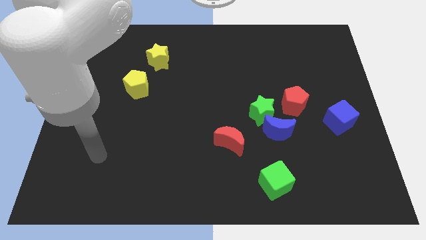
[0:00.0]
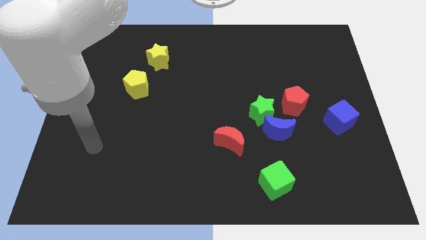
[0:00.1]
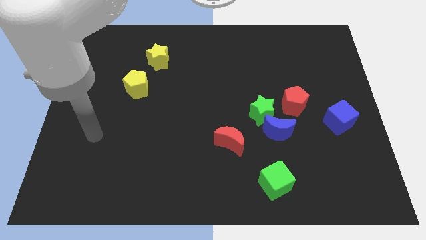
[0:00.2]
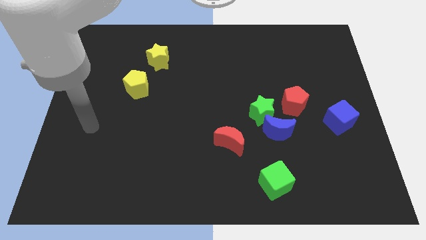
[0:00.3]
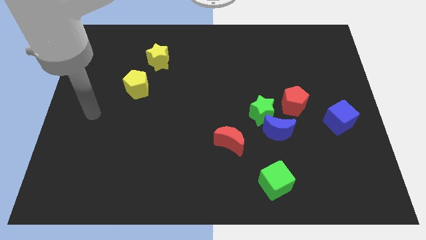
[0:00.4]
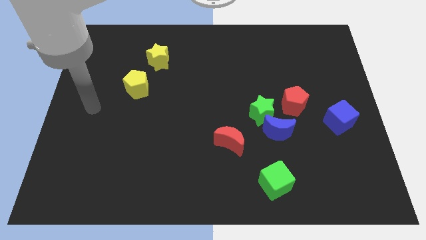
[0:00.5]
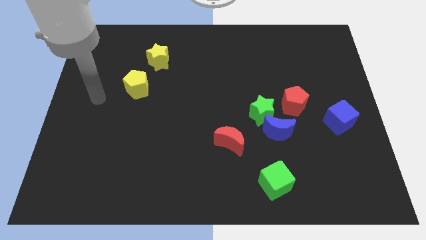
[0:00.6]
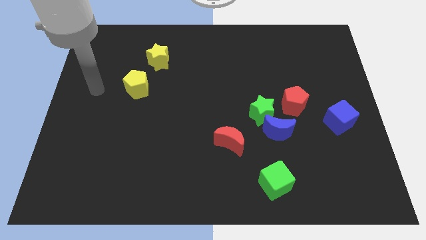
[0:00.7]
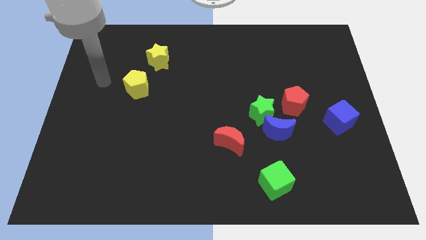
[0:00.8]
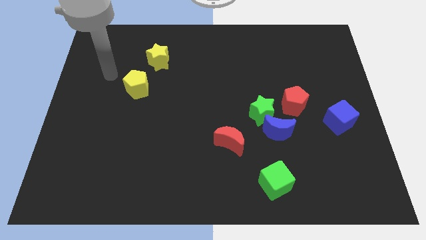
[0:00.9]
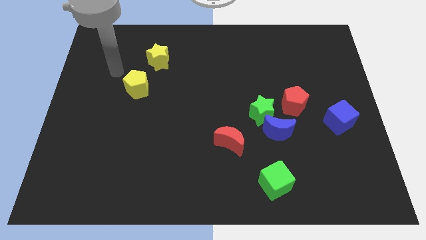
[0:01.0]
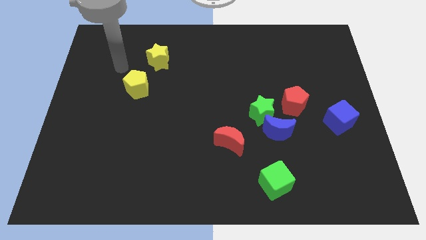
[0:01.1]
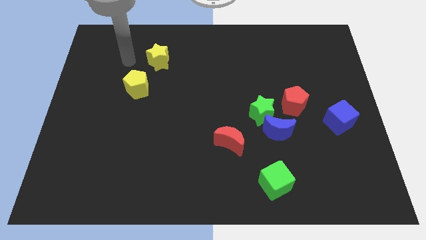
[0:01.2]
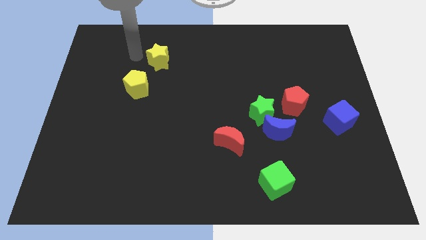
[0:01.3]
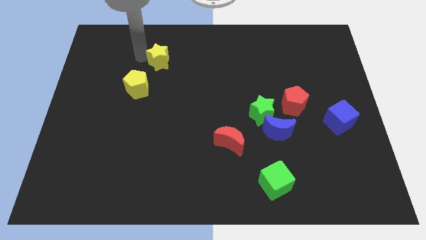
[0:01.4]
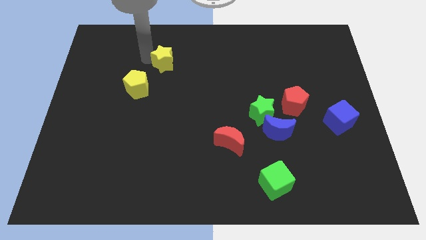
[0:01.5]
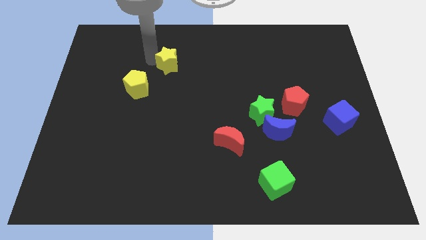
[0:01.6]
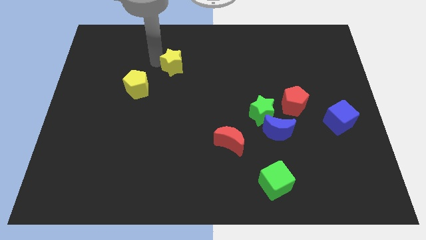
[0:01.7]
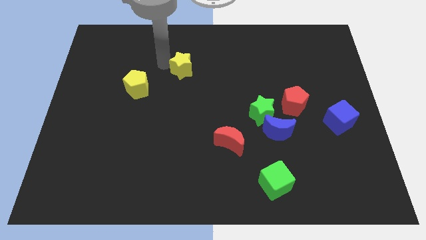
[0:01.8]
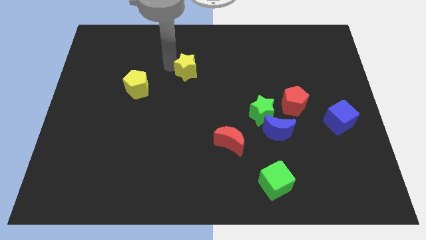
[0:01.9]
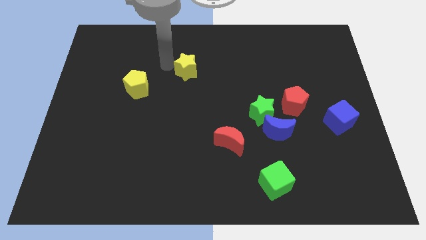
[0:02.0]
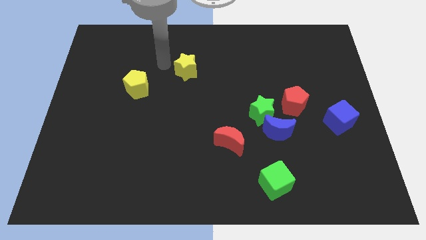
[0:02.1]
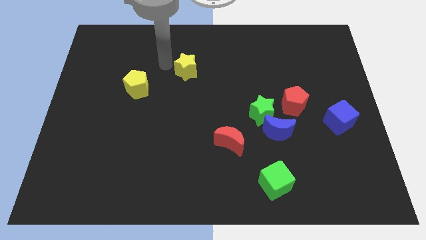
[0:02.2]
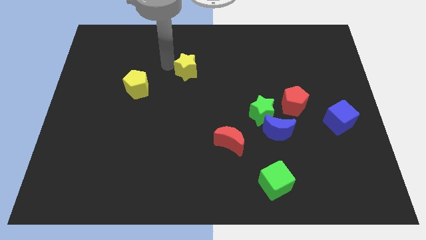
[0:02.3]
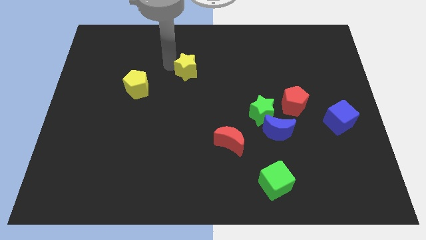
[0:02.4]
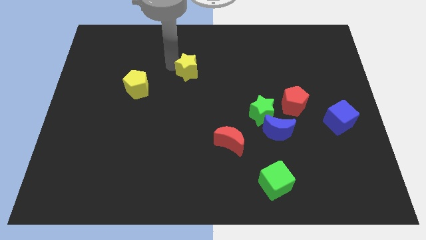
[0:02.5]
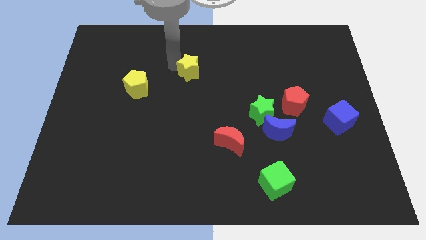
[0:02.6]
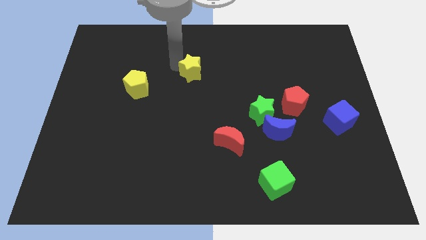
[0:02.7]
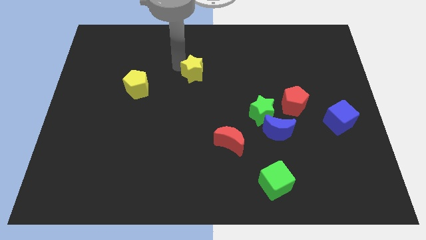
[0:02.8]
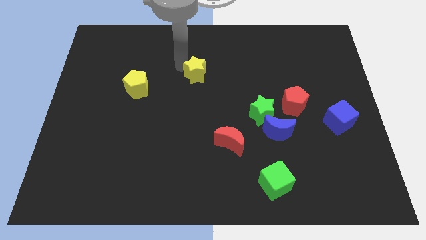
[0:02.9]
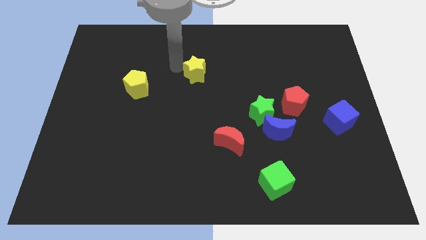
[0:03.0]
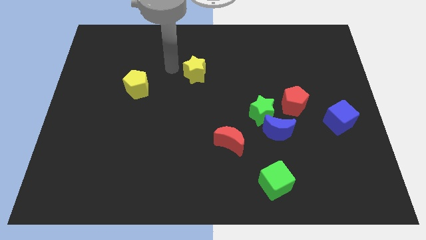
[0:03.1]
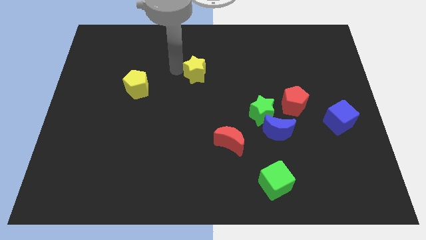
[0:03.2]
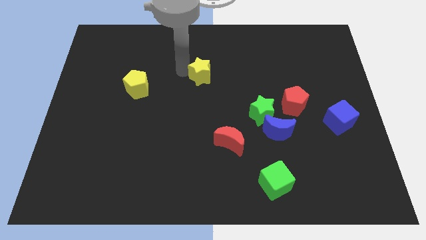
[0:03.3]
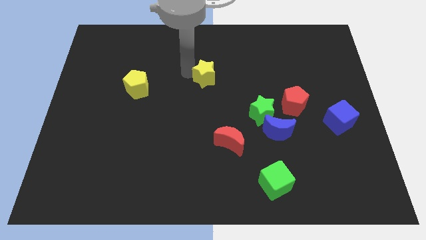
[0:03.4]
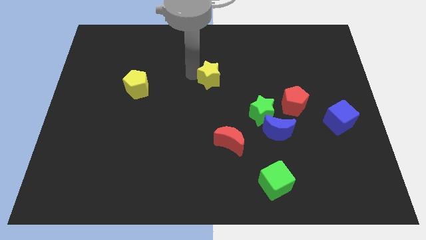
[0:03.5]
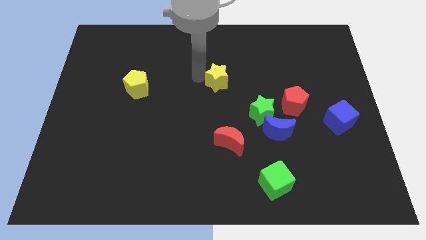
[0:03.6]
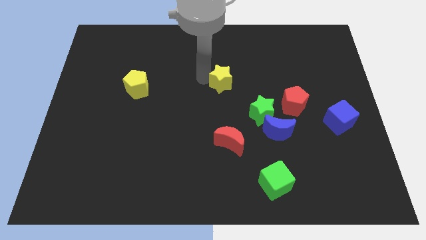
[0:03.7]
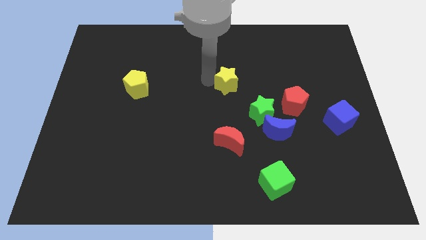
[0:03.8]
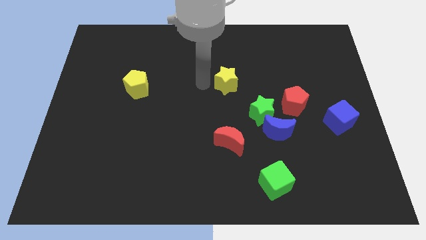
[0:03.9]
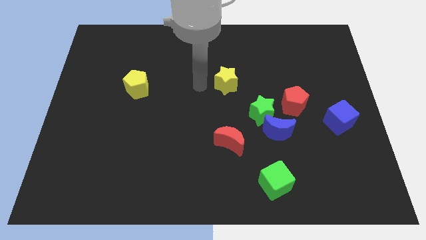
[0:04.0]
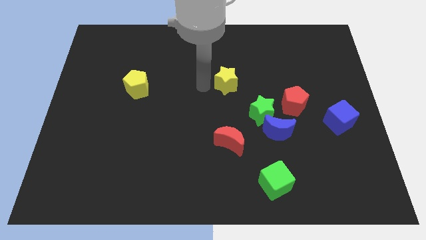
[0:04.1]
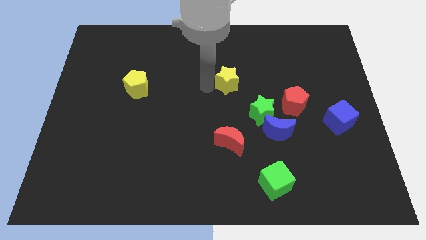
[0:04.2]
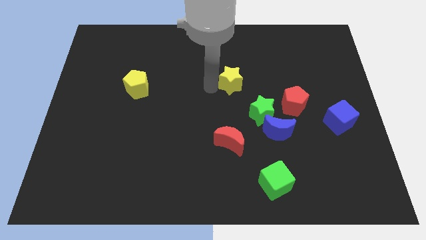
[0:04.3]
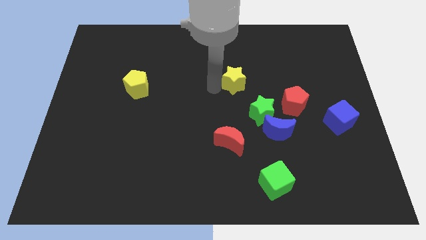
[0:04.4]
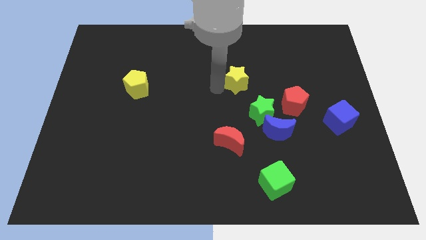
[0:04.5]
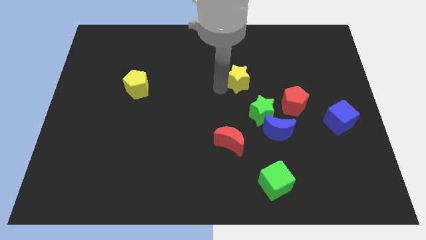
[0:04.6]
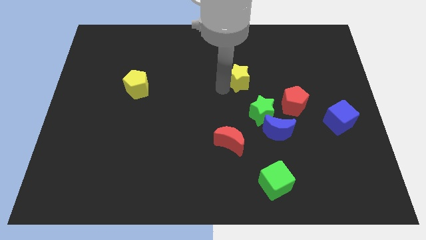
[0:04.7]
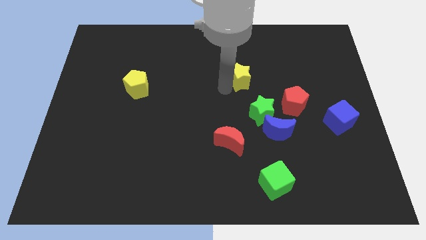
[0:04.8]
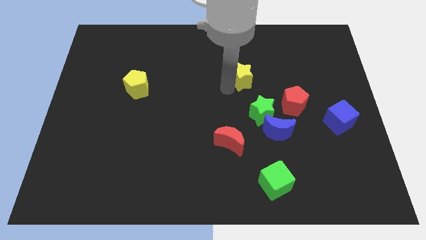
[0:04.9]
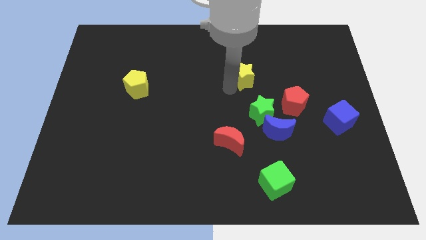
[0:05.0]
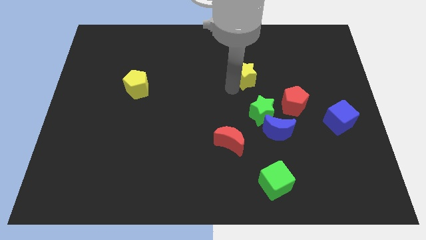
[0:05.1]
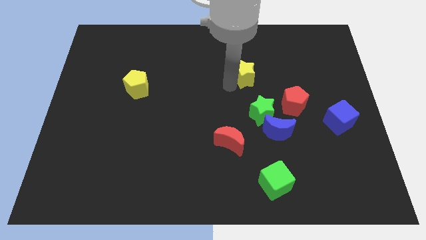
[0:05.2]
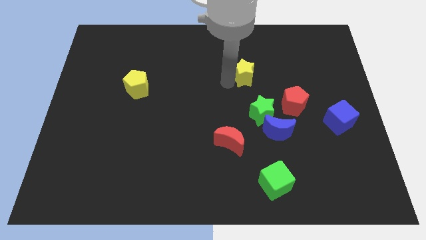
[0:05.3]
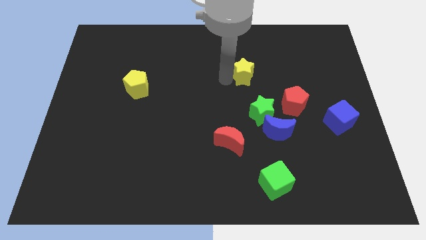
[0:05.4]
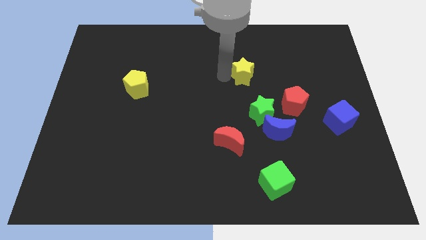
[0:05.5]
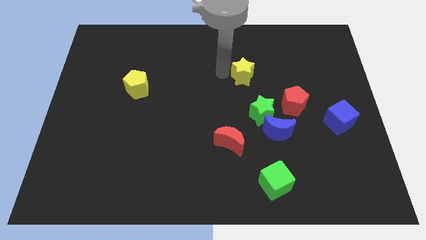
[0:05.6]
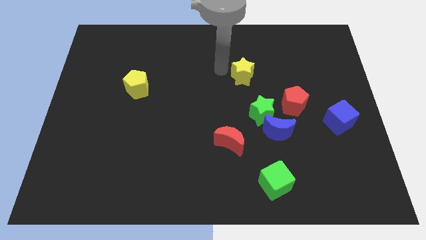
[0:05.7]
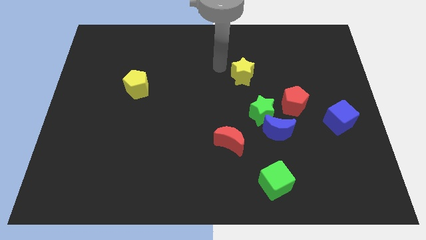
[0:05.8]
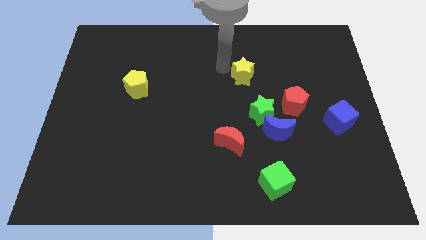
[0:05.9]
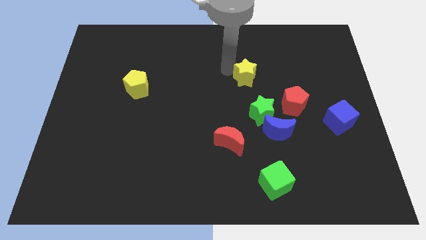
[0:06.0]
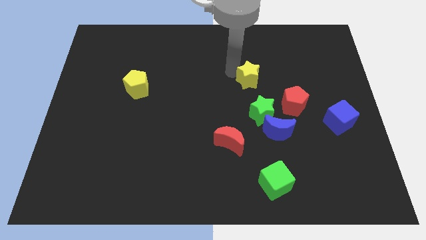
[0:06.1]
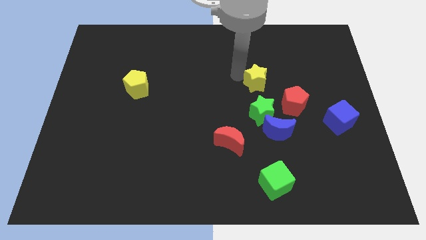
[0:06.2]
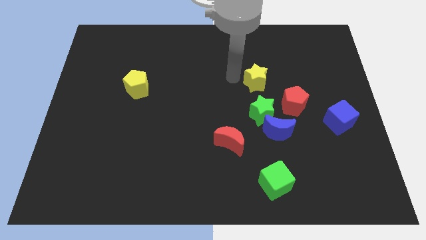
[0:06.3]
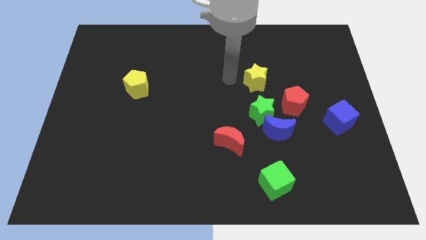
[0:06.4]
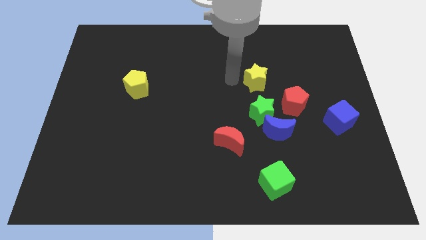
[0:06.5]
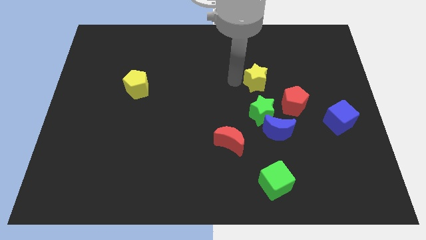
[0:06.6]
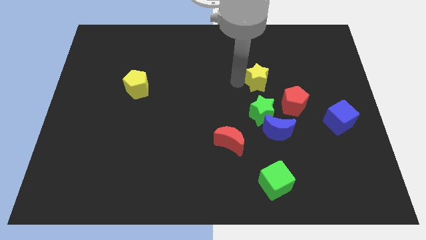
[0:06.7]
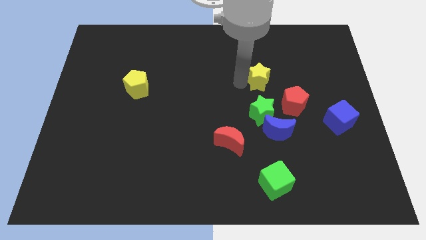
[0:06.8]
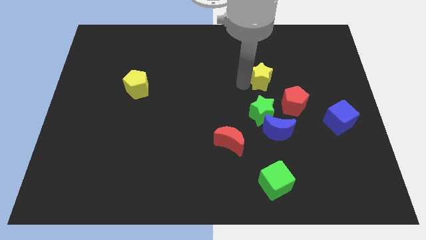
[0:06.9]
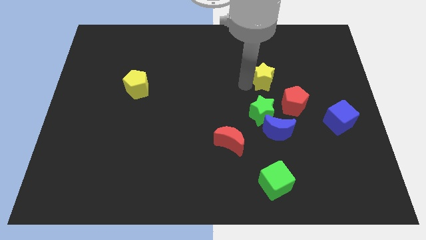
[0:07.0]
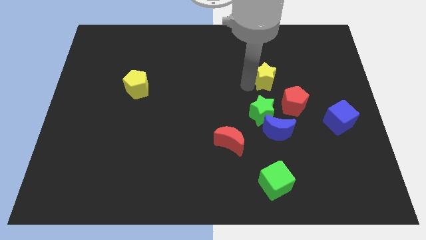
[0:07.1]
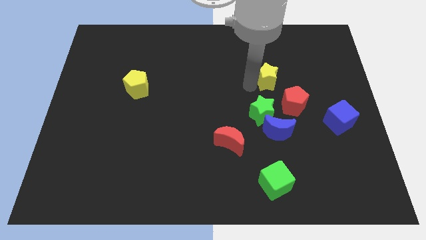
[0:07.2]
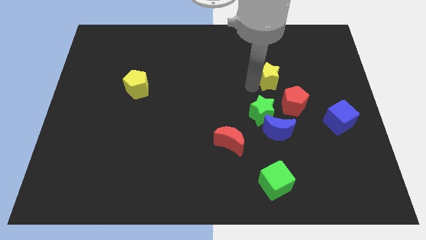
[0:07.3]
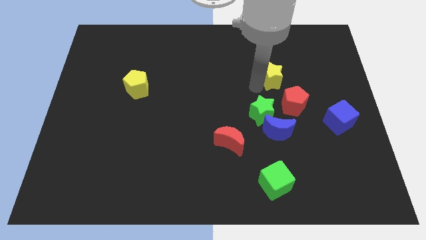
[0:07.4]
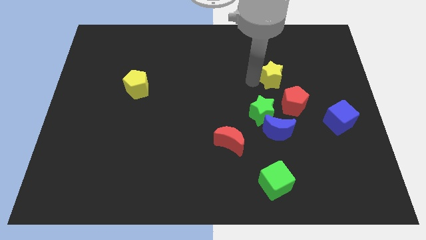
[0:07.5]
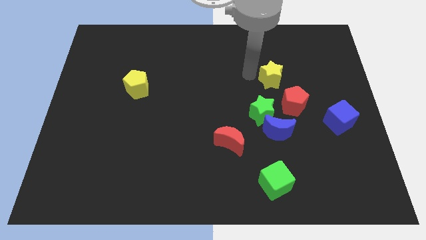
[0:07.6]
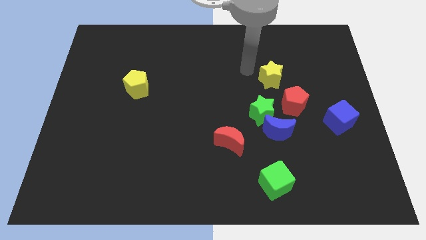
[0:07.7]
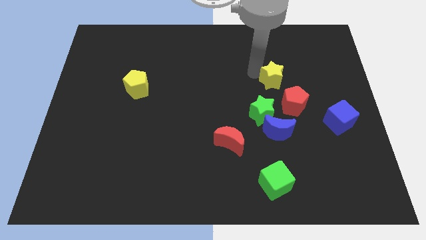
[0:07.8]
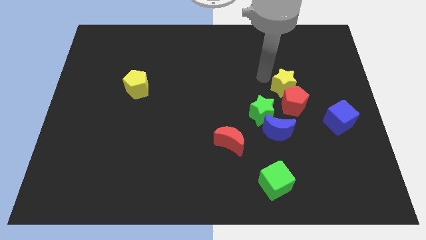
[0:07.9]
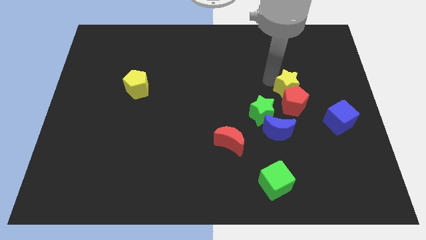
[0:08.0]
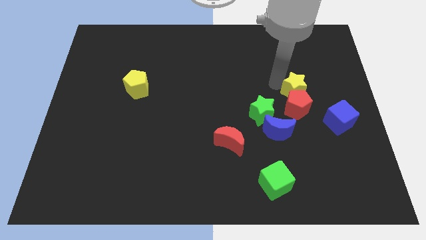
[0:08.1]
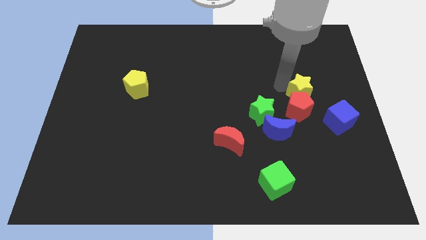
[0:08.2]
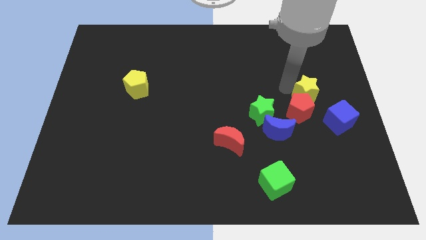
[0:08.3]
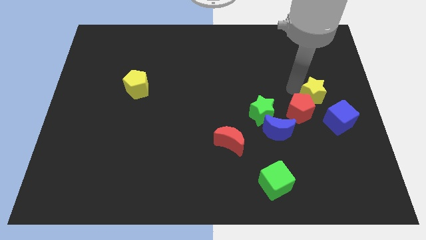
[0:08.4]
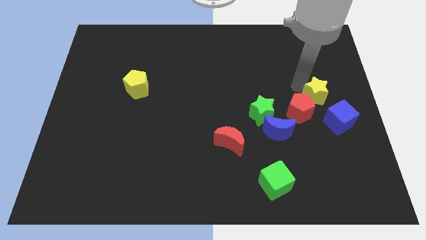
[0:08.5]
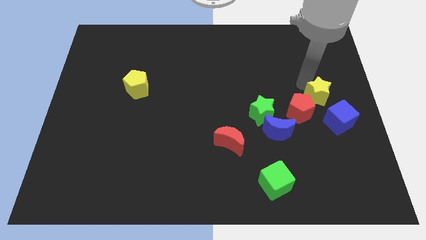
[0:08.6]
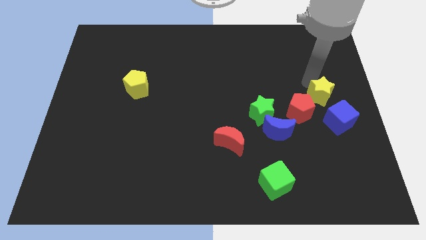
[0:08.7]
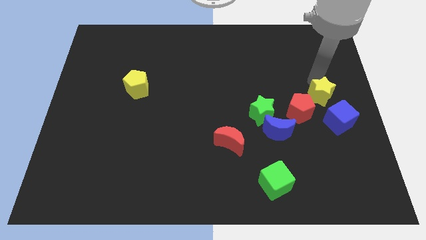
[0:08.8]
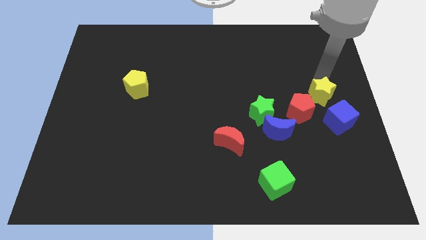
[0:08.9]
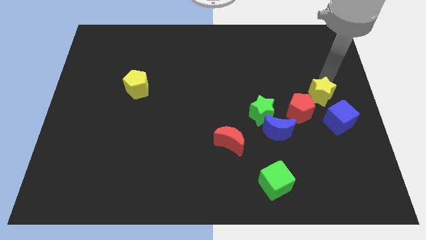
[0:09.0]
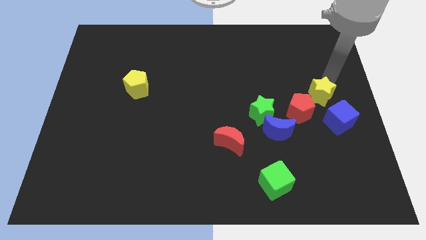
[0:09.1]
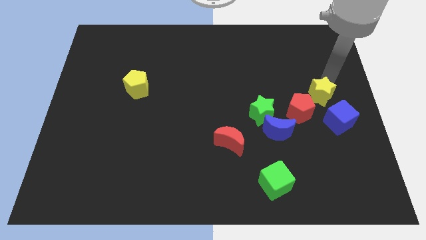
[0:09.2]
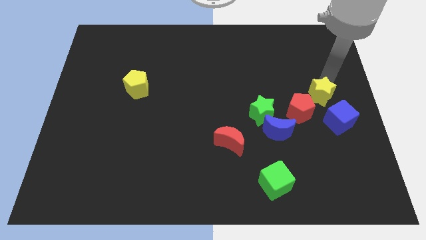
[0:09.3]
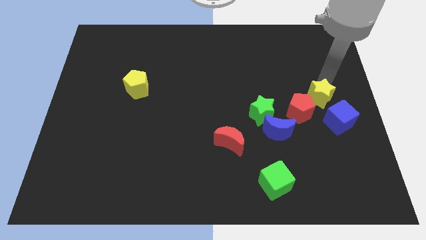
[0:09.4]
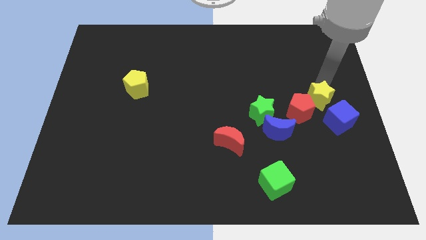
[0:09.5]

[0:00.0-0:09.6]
push the yellow star to the right side of the green star
